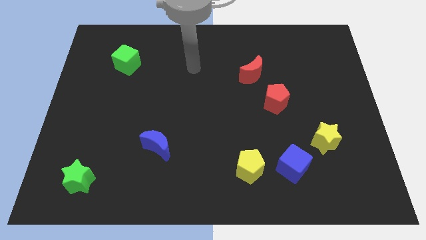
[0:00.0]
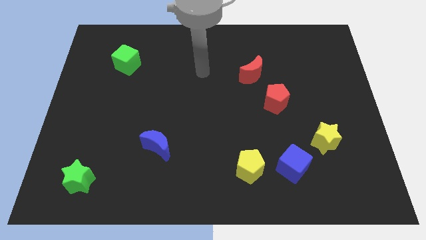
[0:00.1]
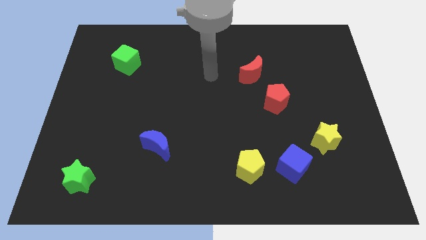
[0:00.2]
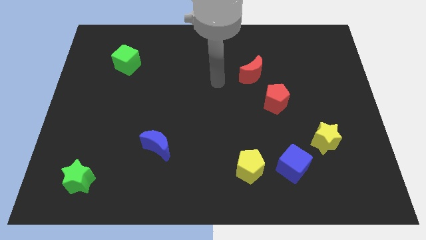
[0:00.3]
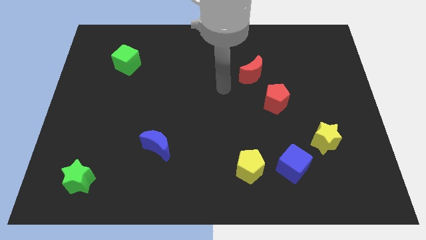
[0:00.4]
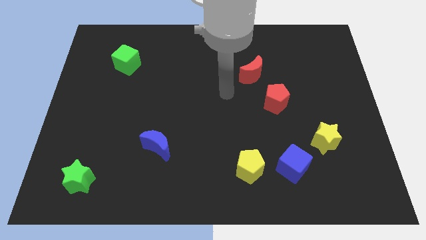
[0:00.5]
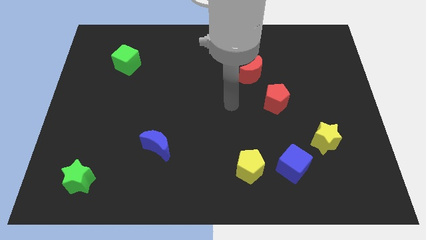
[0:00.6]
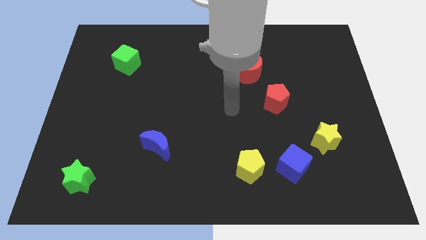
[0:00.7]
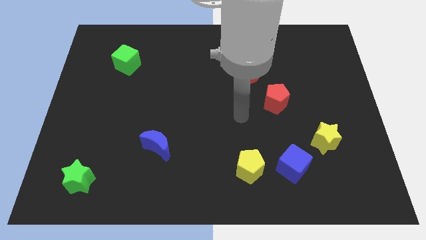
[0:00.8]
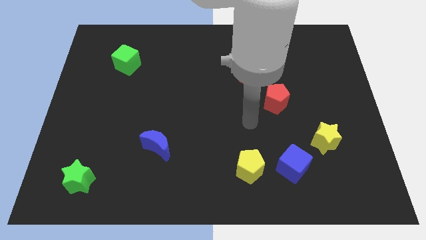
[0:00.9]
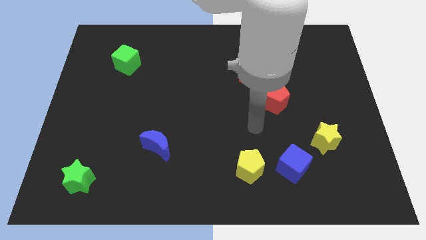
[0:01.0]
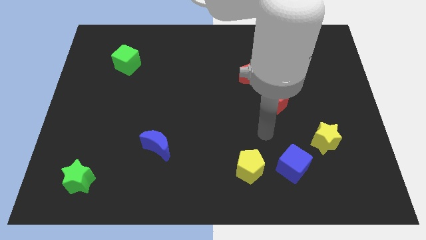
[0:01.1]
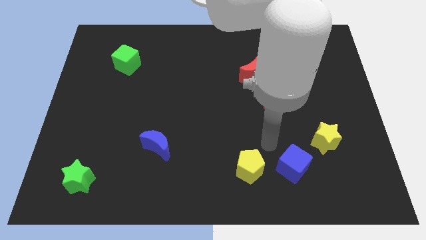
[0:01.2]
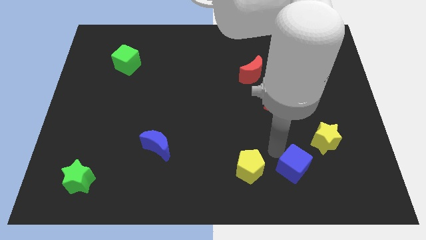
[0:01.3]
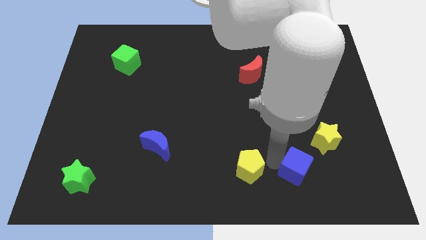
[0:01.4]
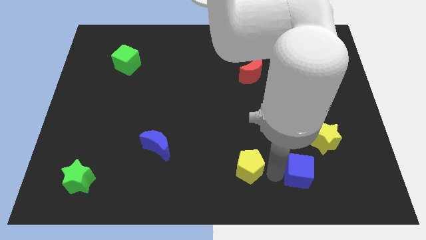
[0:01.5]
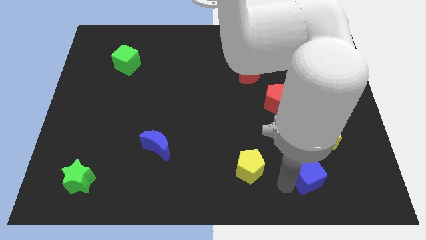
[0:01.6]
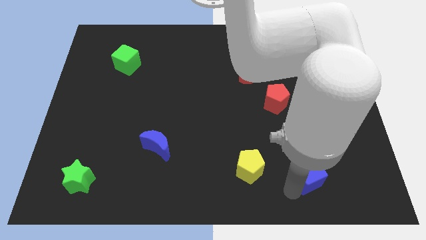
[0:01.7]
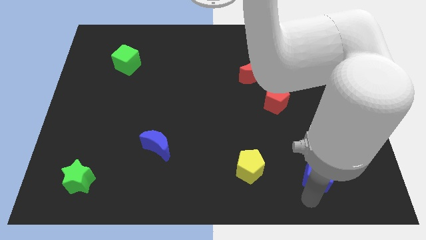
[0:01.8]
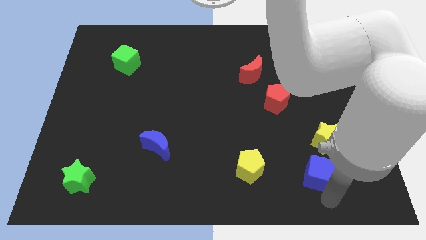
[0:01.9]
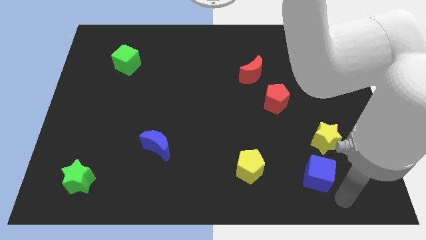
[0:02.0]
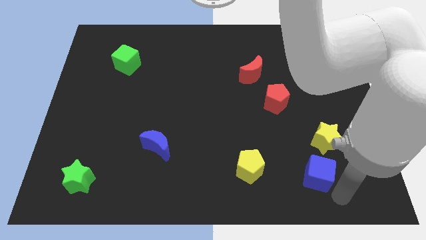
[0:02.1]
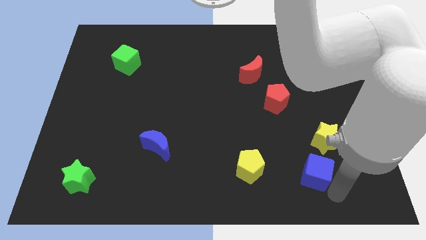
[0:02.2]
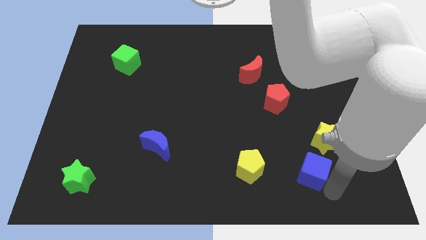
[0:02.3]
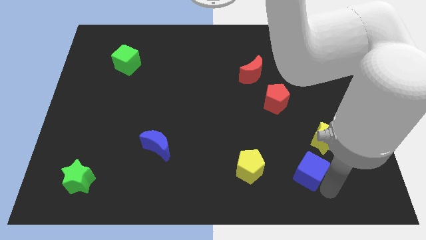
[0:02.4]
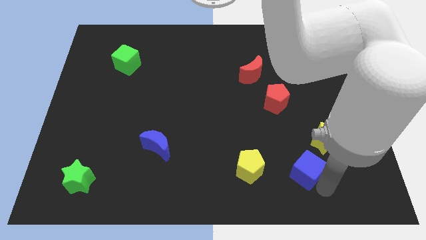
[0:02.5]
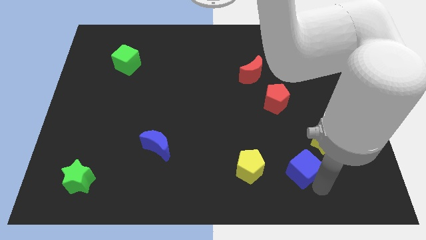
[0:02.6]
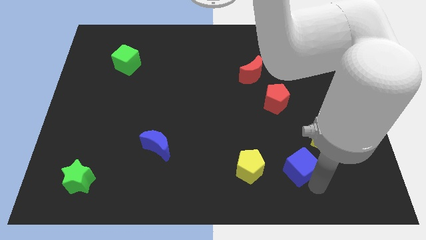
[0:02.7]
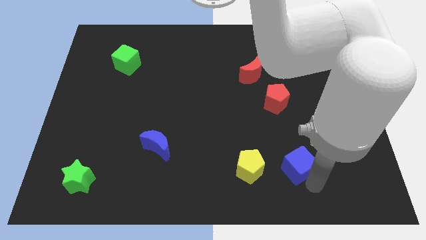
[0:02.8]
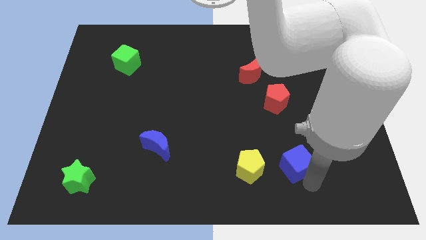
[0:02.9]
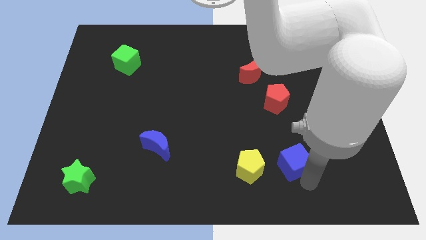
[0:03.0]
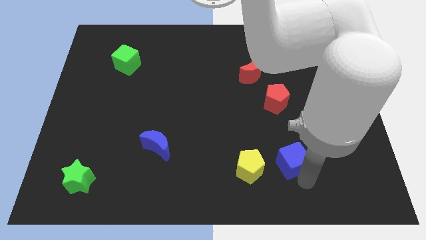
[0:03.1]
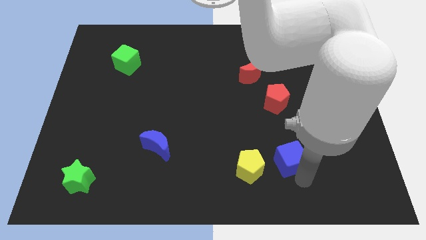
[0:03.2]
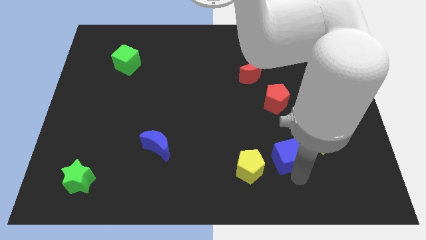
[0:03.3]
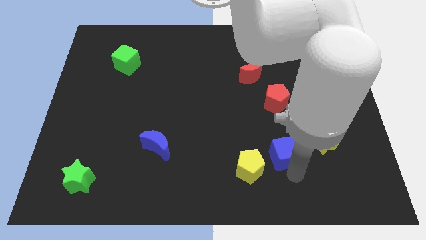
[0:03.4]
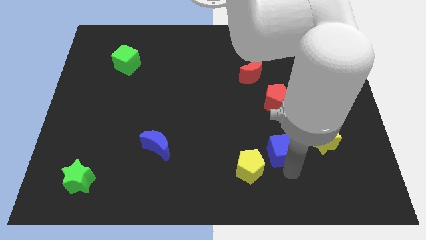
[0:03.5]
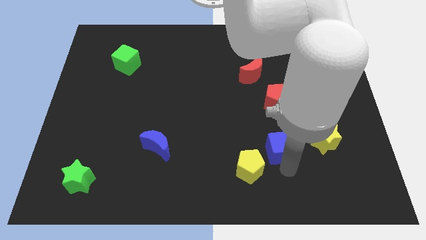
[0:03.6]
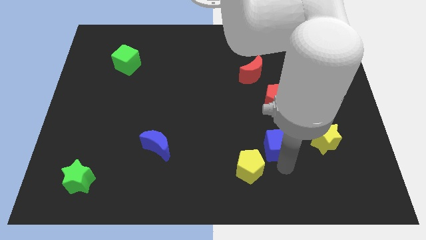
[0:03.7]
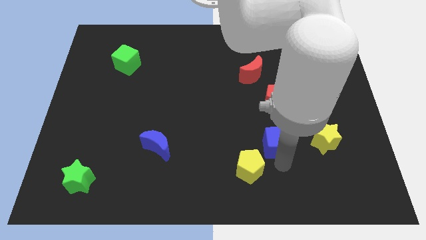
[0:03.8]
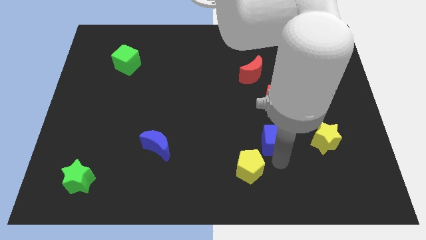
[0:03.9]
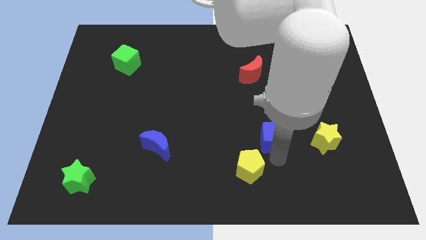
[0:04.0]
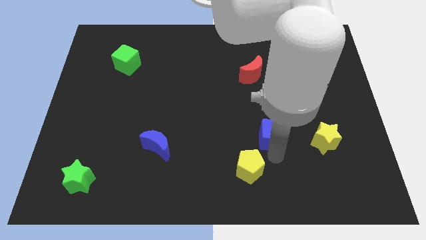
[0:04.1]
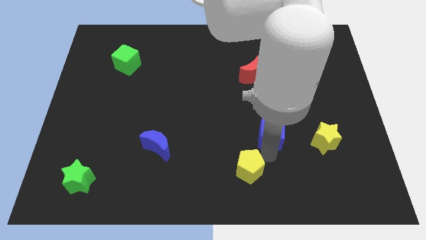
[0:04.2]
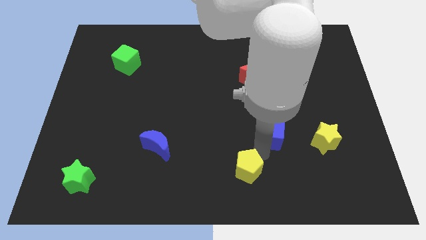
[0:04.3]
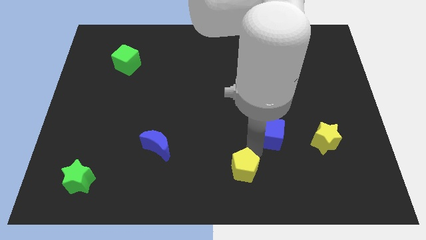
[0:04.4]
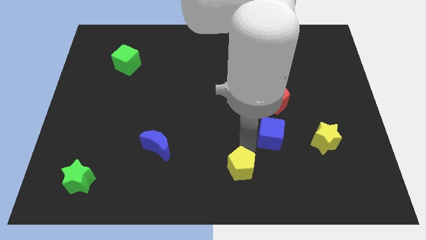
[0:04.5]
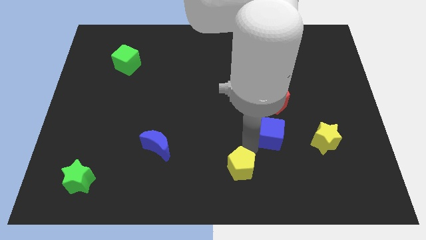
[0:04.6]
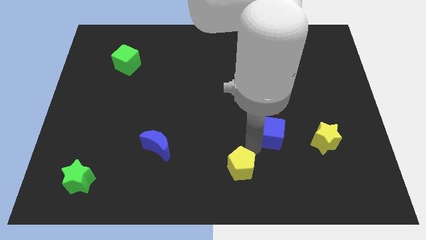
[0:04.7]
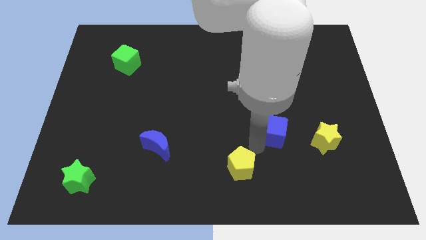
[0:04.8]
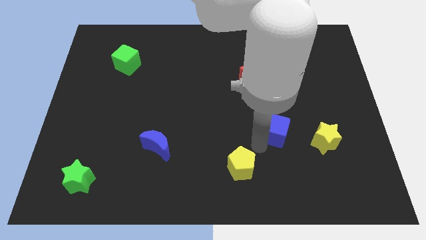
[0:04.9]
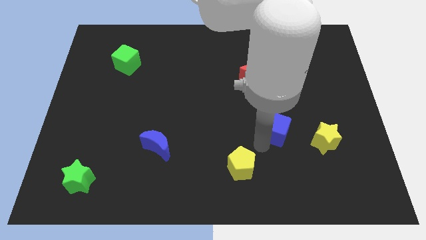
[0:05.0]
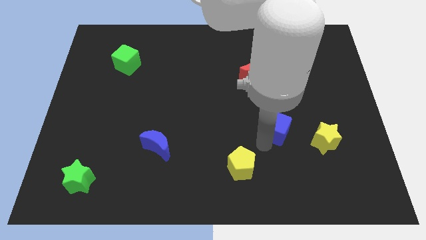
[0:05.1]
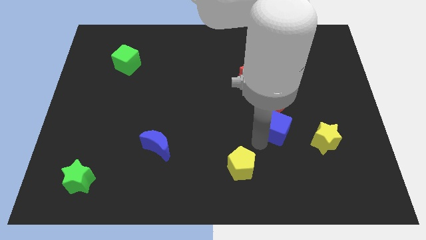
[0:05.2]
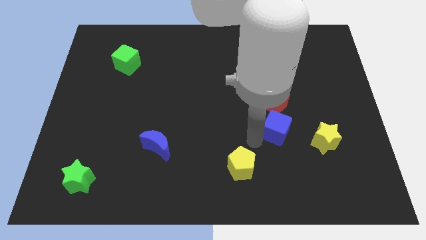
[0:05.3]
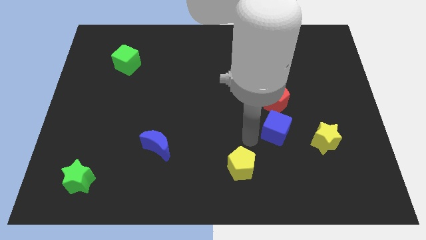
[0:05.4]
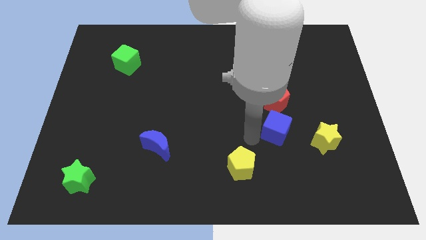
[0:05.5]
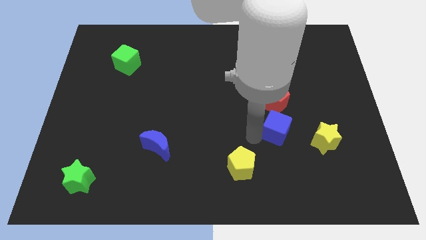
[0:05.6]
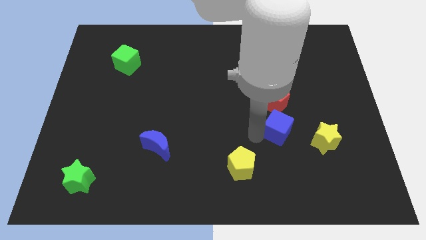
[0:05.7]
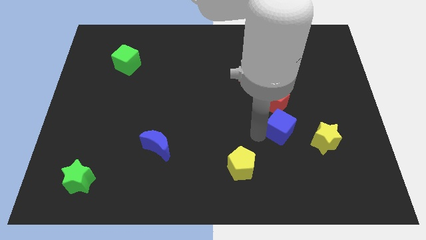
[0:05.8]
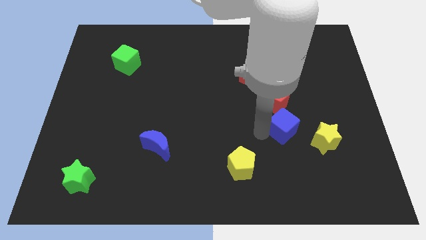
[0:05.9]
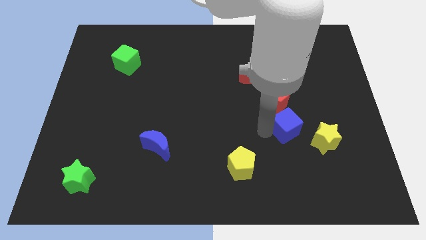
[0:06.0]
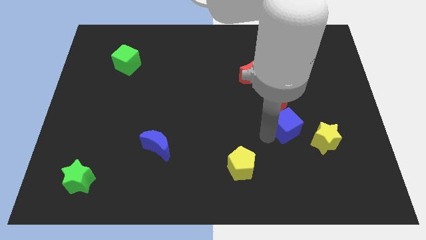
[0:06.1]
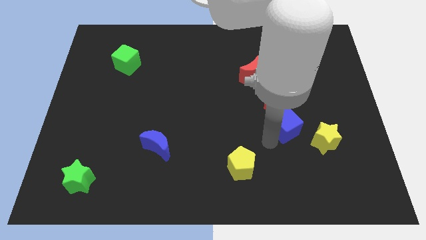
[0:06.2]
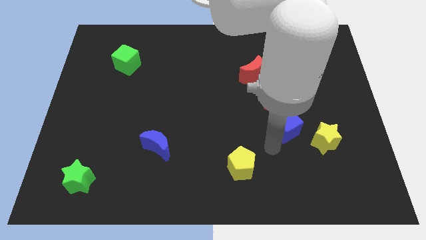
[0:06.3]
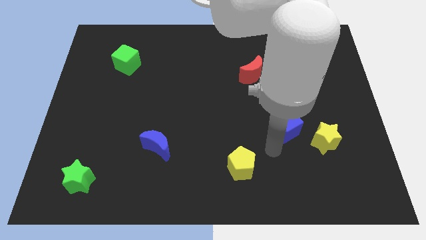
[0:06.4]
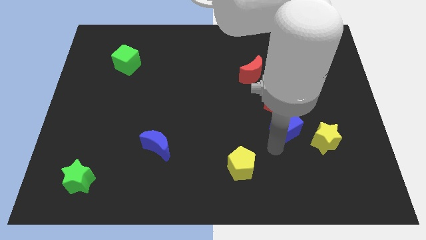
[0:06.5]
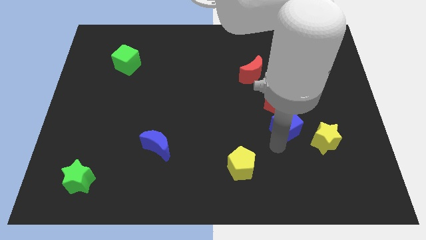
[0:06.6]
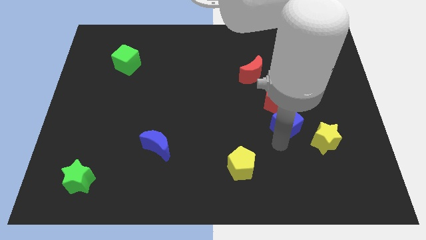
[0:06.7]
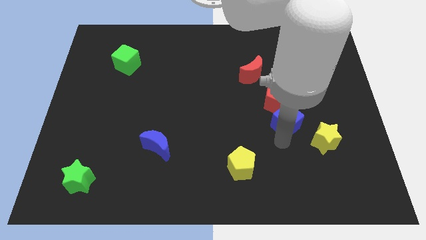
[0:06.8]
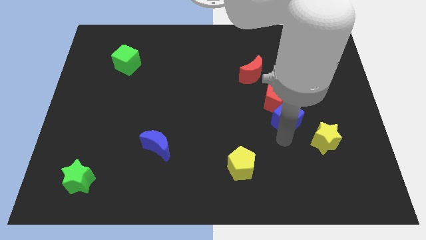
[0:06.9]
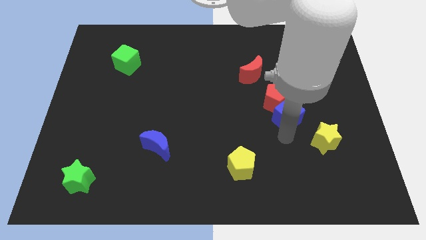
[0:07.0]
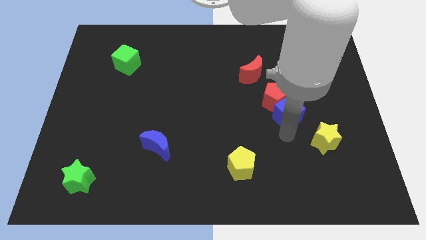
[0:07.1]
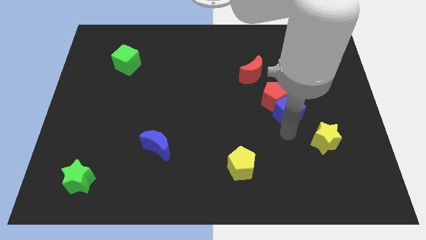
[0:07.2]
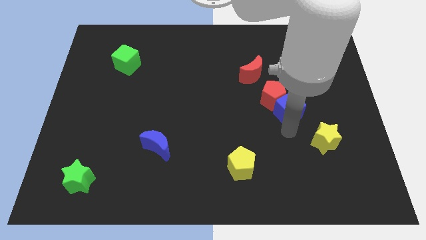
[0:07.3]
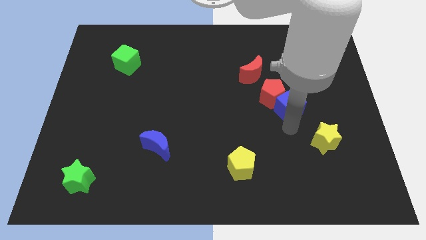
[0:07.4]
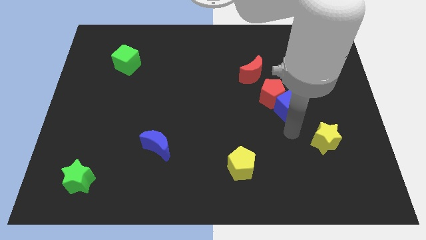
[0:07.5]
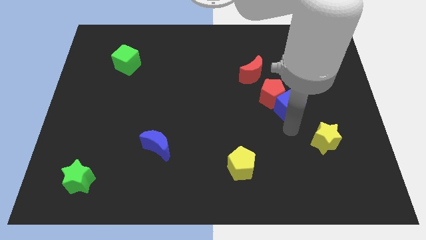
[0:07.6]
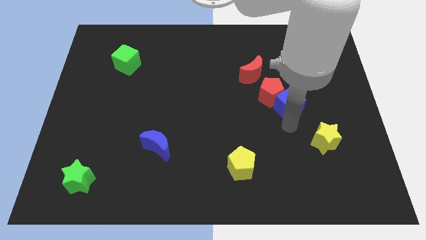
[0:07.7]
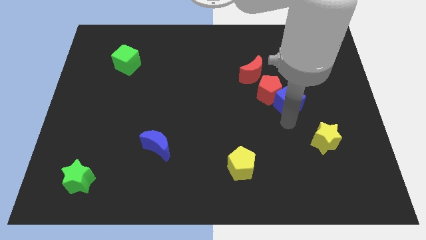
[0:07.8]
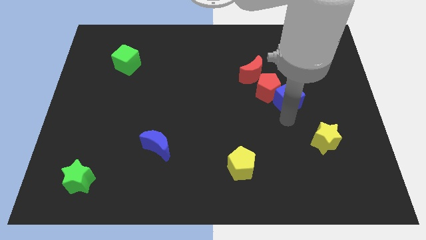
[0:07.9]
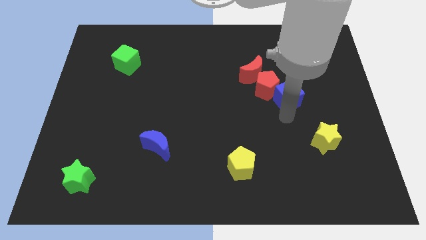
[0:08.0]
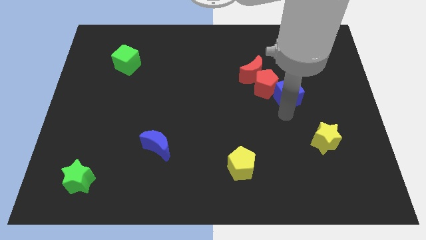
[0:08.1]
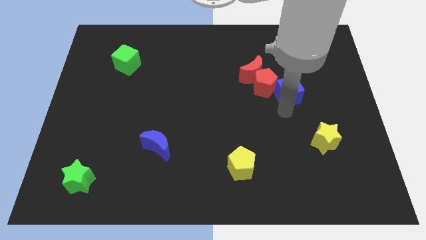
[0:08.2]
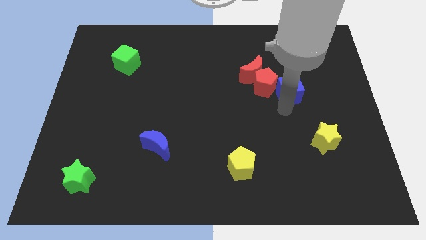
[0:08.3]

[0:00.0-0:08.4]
move the blue cube upwards
